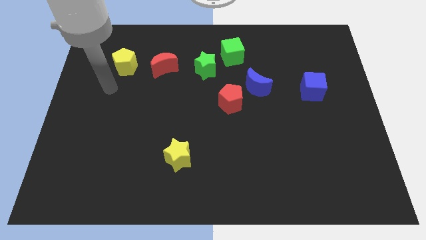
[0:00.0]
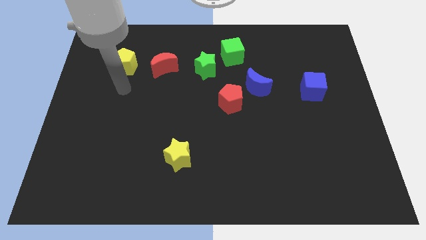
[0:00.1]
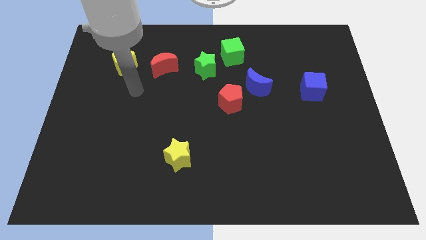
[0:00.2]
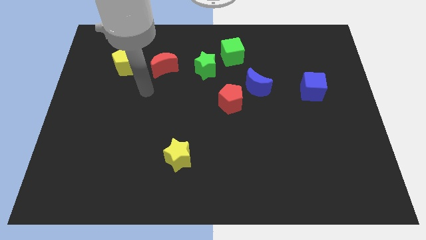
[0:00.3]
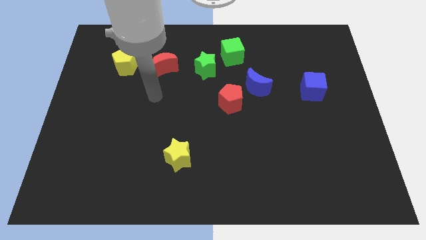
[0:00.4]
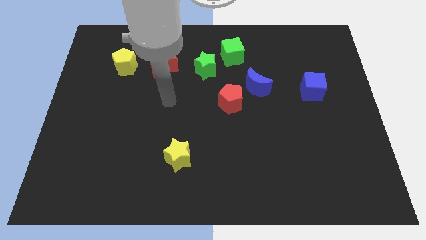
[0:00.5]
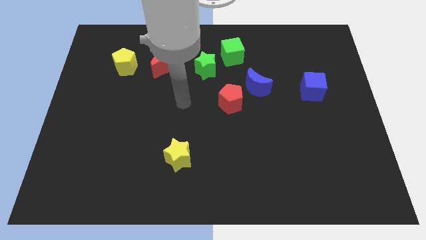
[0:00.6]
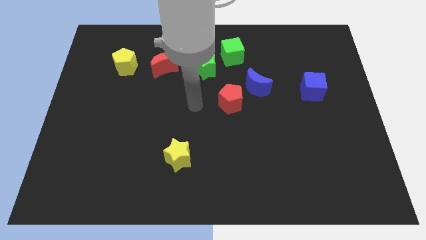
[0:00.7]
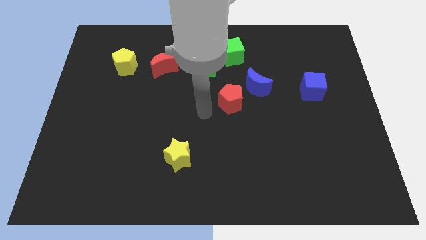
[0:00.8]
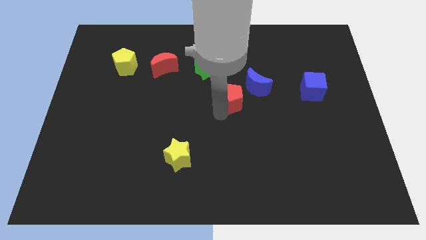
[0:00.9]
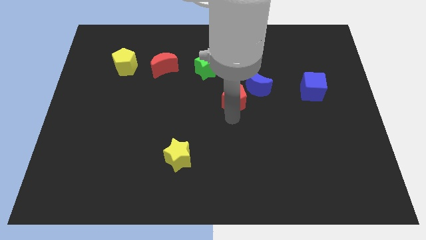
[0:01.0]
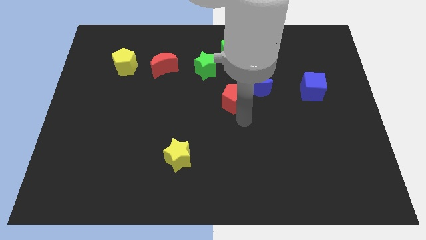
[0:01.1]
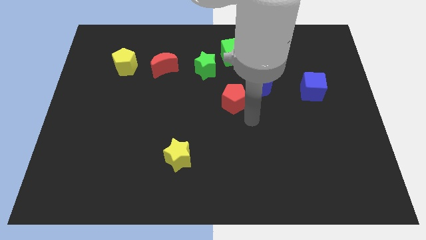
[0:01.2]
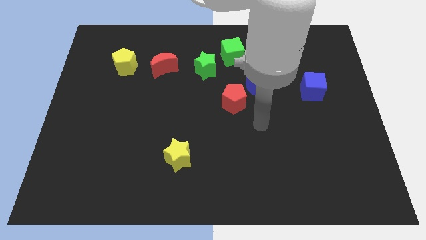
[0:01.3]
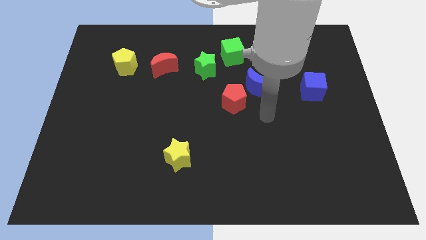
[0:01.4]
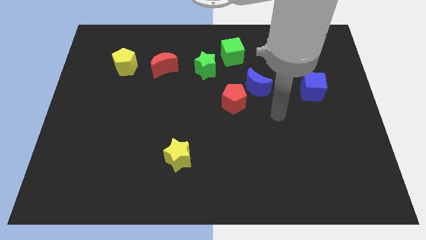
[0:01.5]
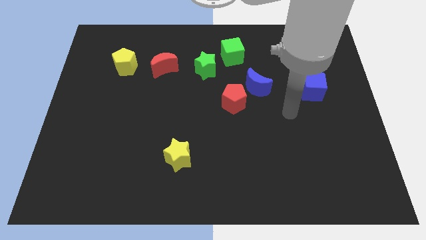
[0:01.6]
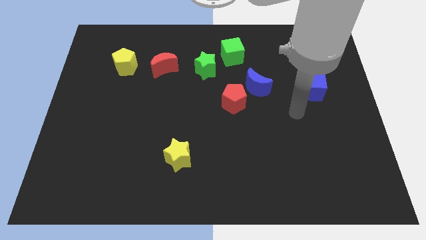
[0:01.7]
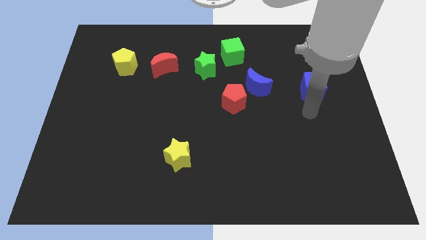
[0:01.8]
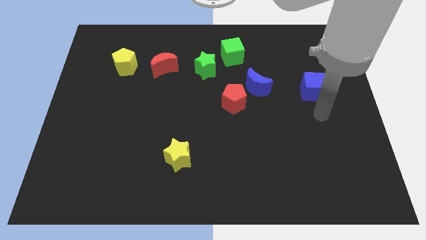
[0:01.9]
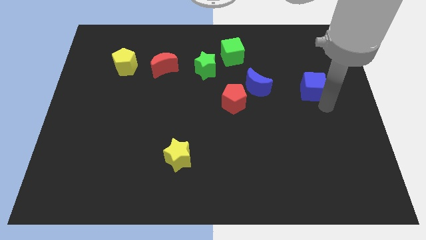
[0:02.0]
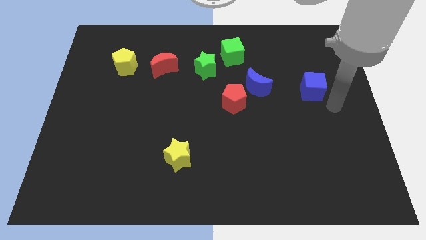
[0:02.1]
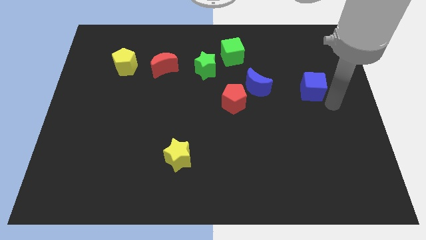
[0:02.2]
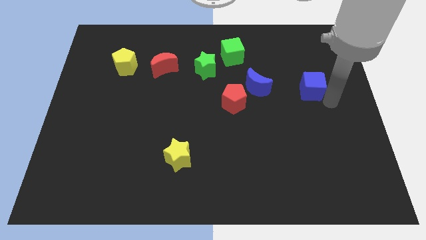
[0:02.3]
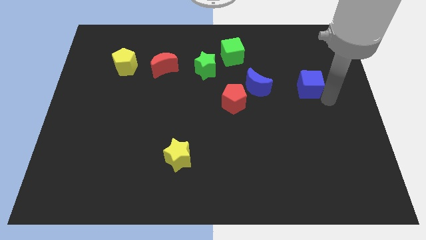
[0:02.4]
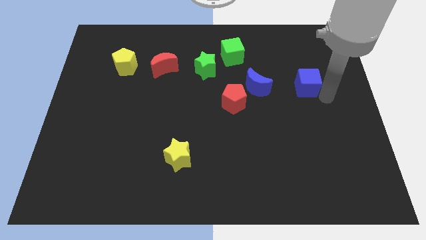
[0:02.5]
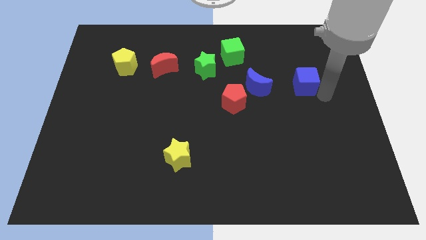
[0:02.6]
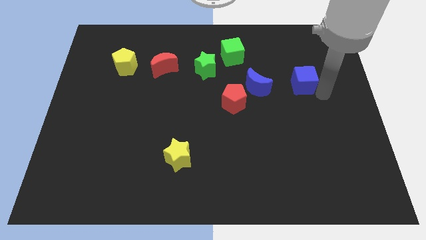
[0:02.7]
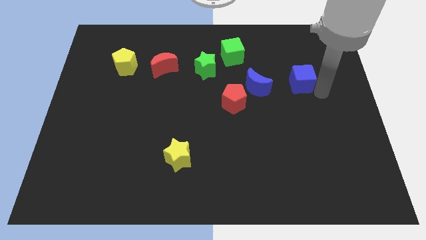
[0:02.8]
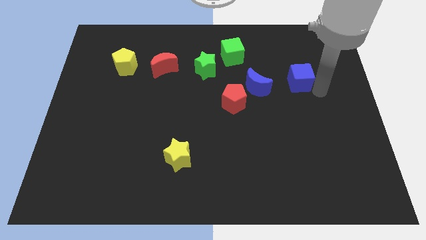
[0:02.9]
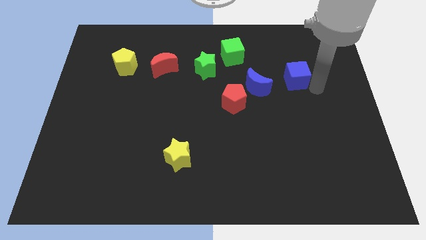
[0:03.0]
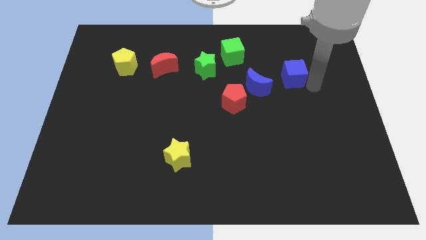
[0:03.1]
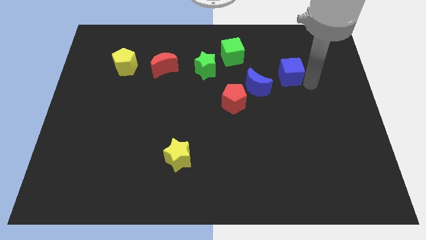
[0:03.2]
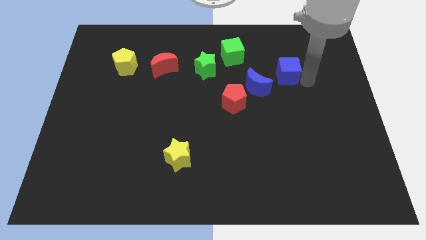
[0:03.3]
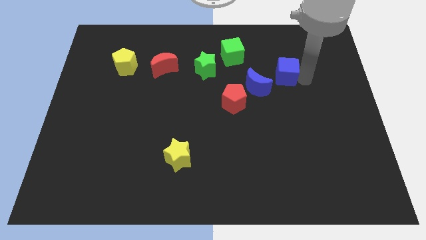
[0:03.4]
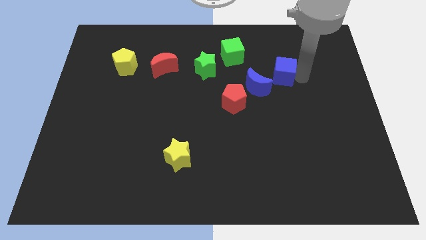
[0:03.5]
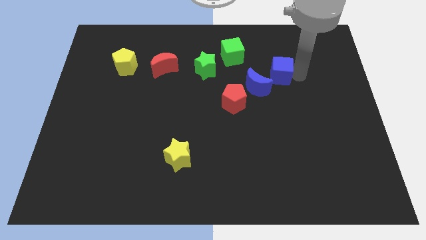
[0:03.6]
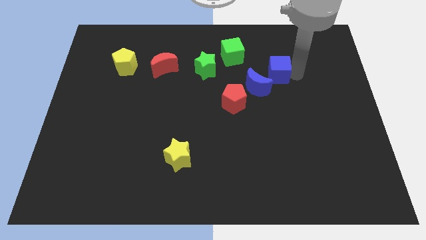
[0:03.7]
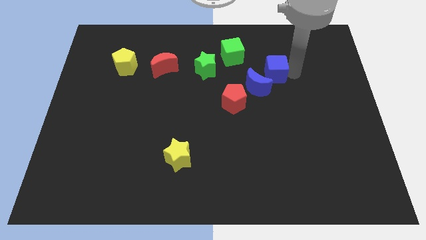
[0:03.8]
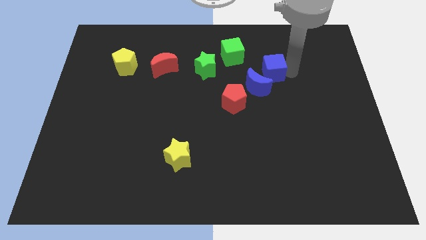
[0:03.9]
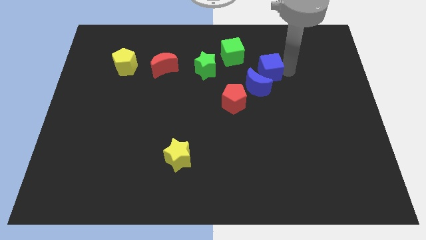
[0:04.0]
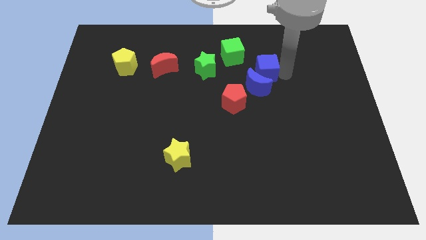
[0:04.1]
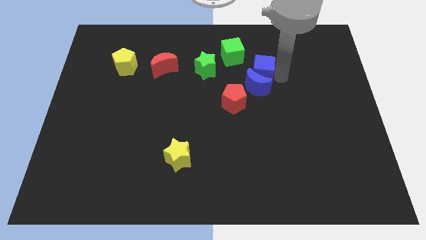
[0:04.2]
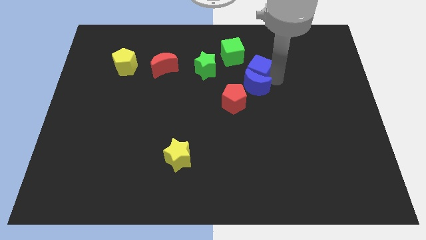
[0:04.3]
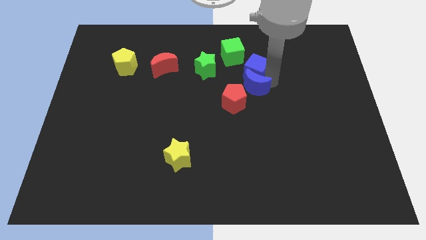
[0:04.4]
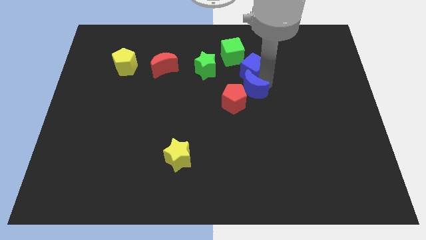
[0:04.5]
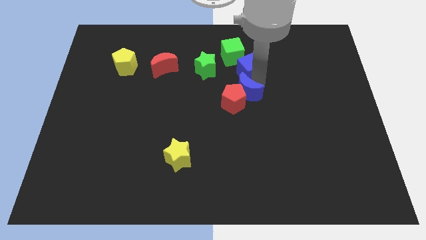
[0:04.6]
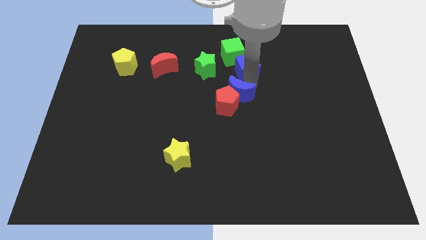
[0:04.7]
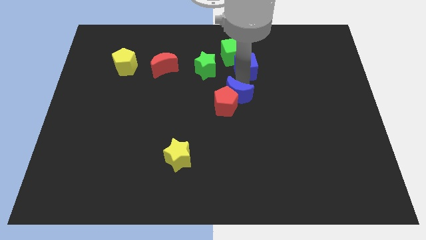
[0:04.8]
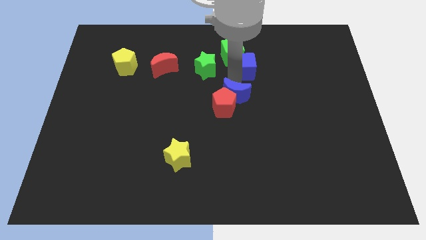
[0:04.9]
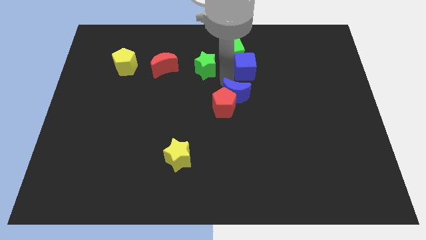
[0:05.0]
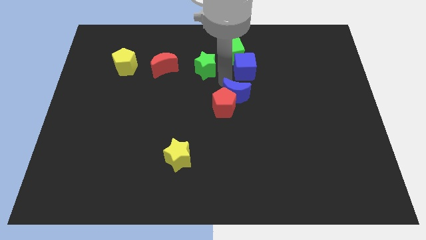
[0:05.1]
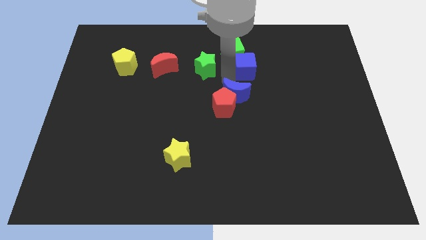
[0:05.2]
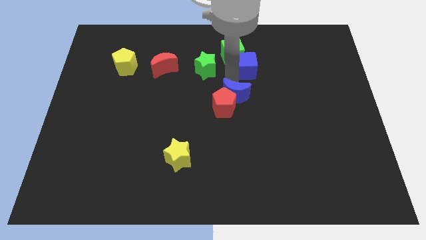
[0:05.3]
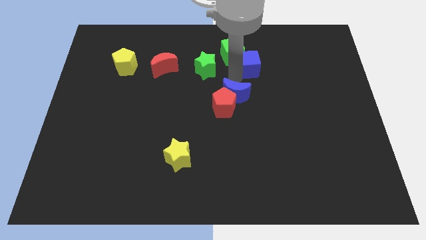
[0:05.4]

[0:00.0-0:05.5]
put the blue cube just right of the green cube

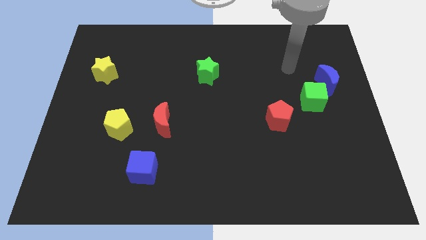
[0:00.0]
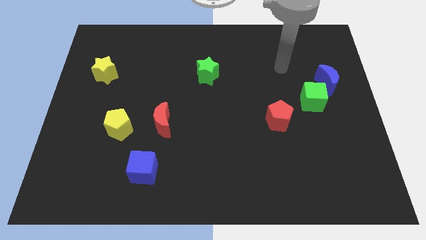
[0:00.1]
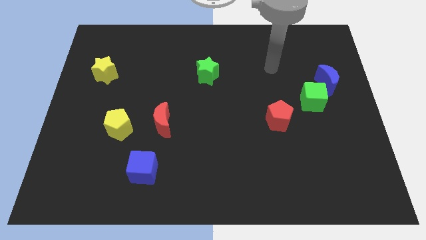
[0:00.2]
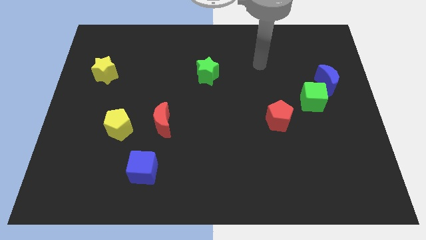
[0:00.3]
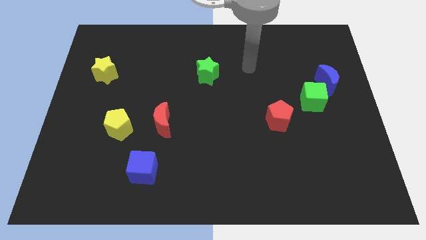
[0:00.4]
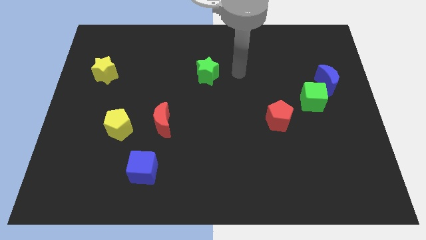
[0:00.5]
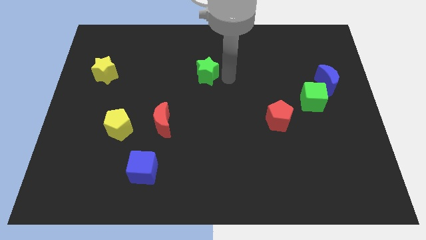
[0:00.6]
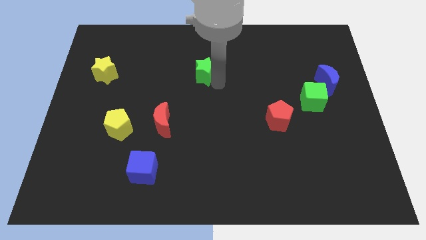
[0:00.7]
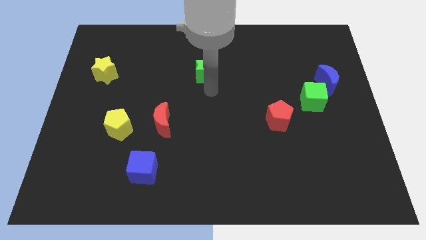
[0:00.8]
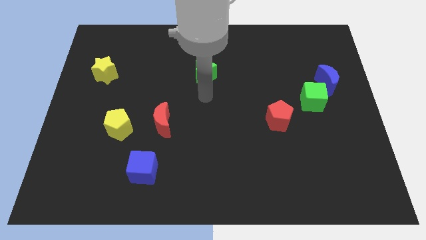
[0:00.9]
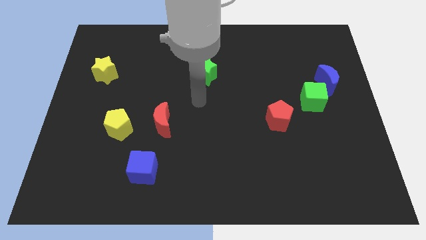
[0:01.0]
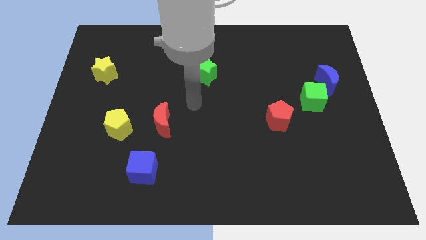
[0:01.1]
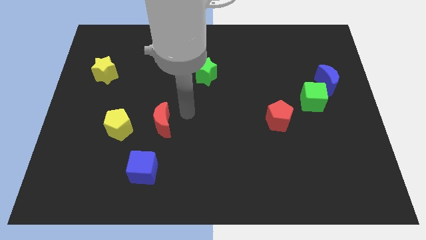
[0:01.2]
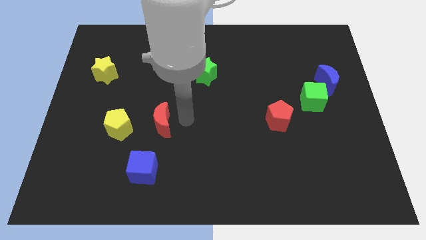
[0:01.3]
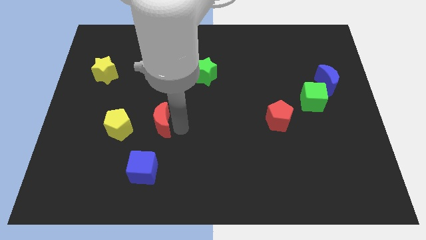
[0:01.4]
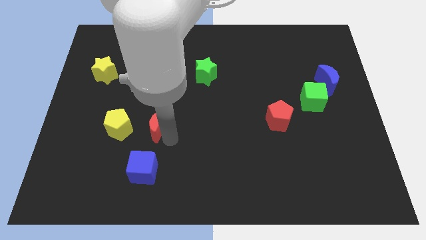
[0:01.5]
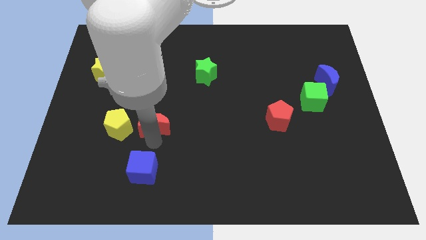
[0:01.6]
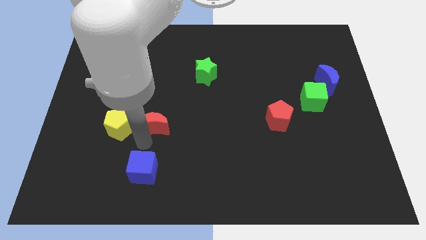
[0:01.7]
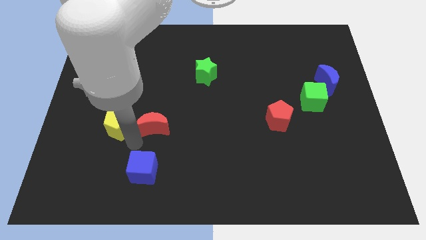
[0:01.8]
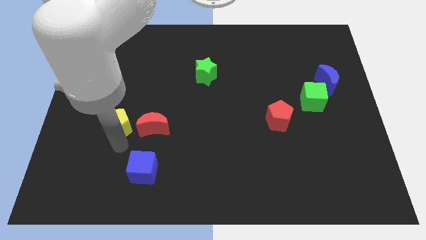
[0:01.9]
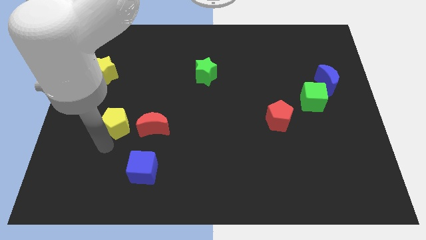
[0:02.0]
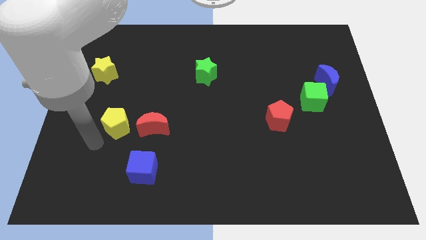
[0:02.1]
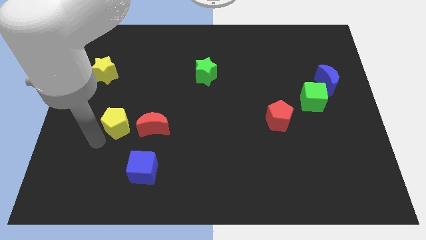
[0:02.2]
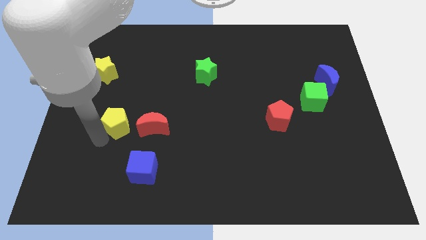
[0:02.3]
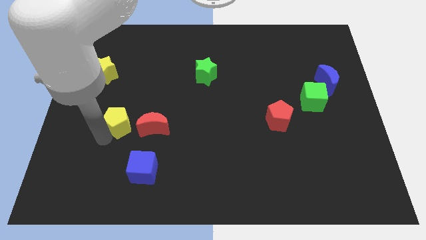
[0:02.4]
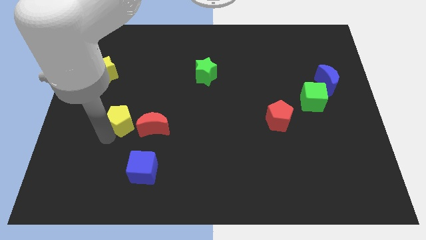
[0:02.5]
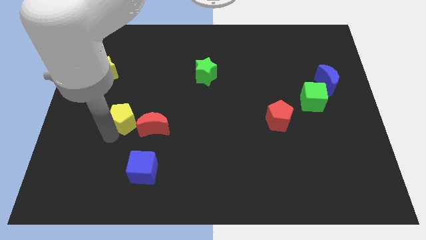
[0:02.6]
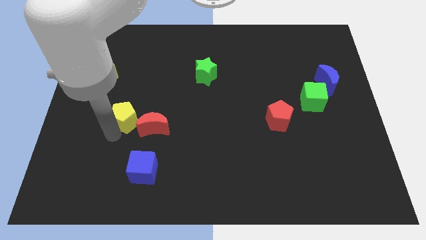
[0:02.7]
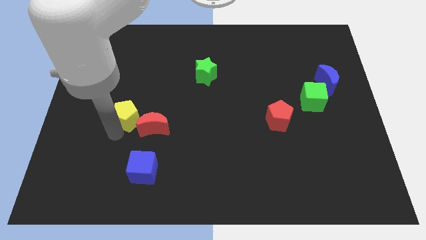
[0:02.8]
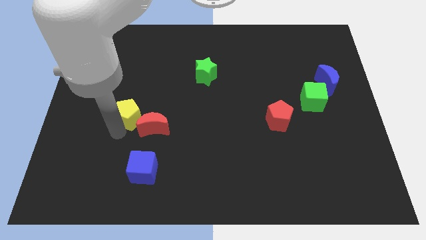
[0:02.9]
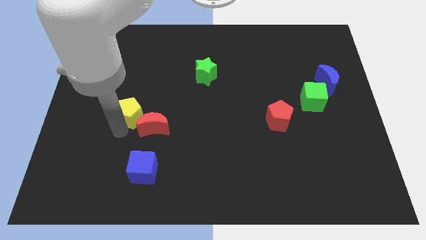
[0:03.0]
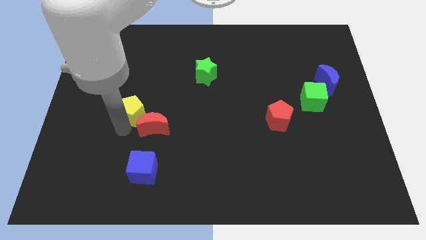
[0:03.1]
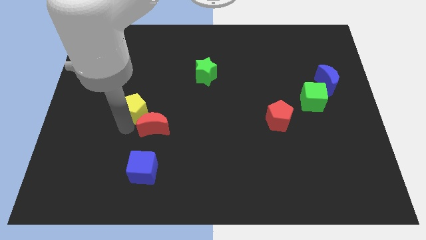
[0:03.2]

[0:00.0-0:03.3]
push the yellow pentagon to the top of the red moon
